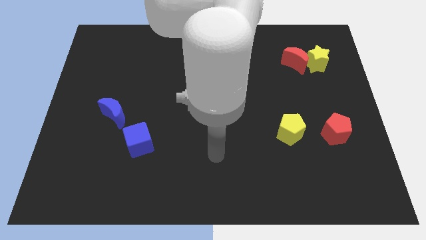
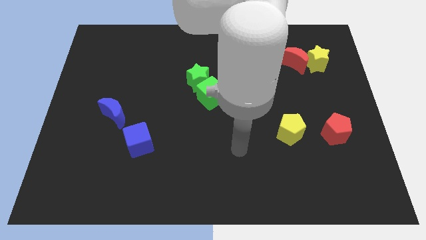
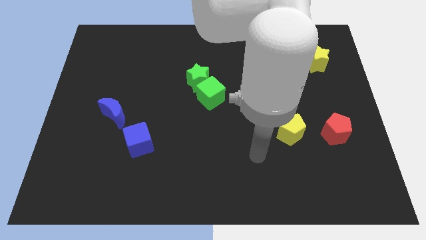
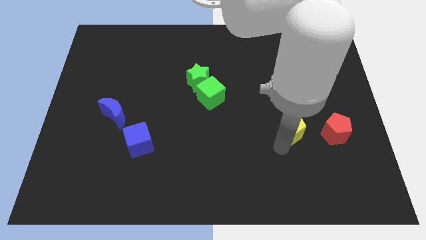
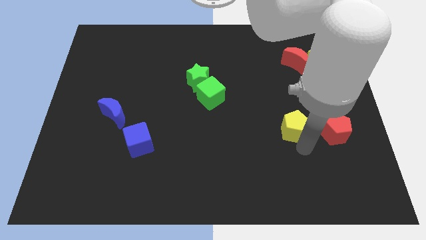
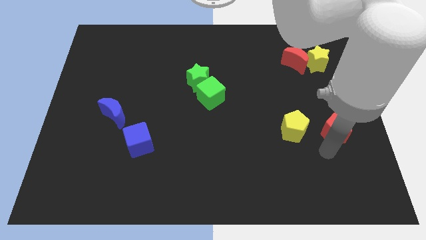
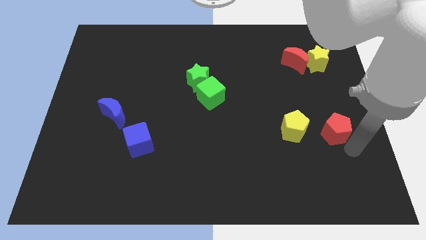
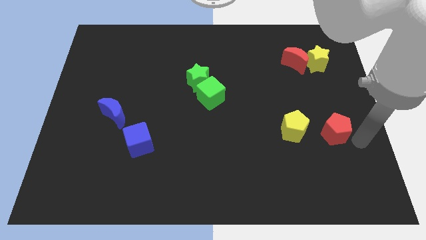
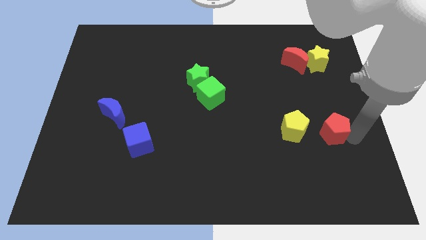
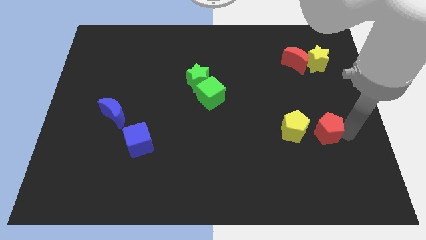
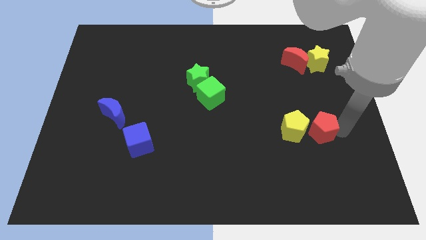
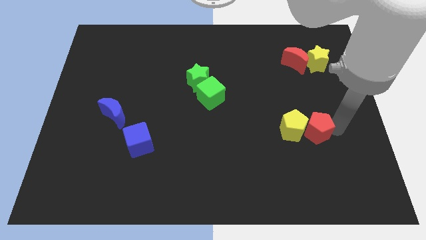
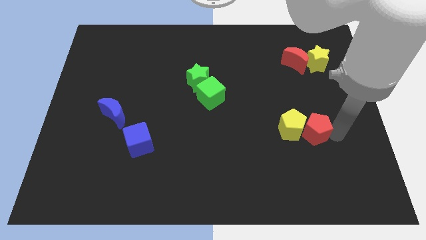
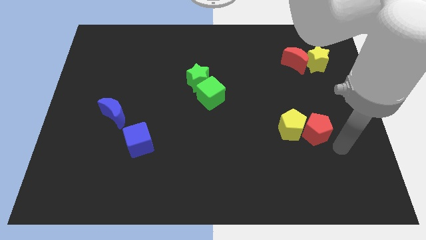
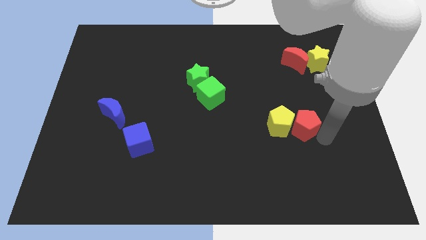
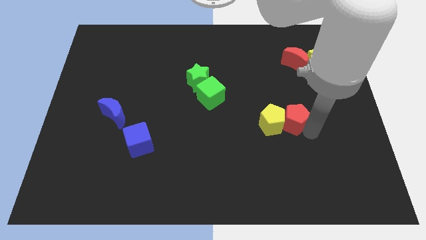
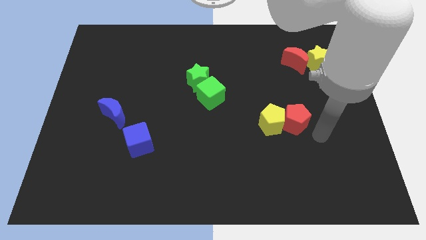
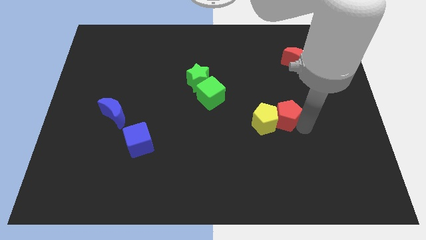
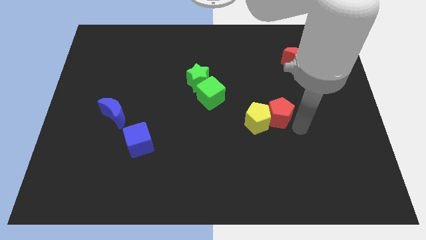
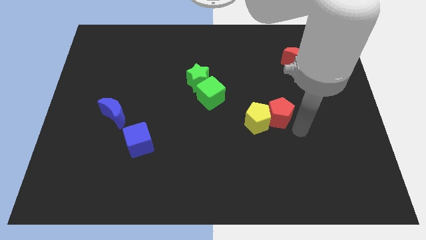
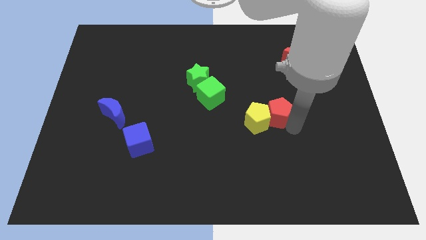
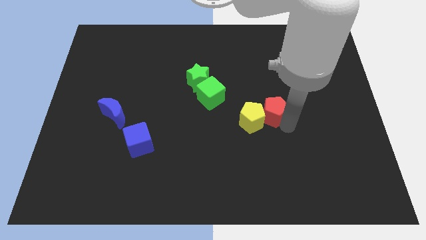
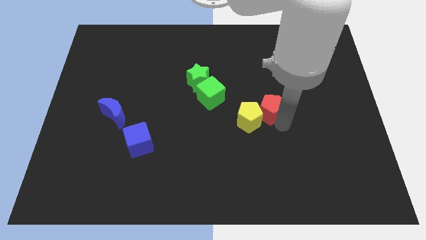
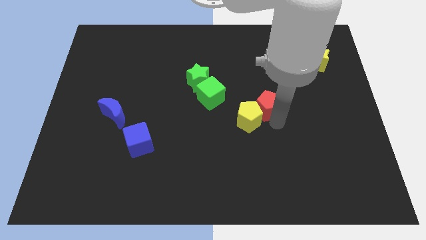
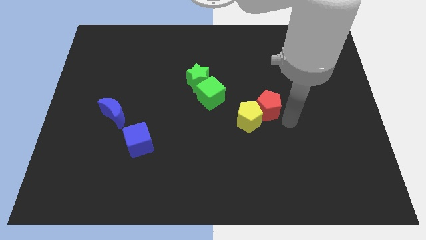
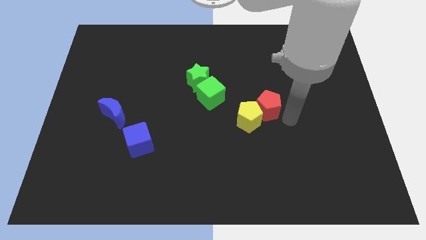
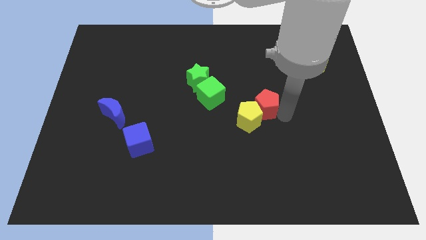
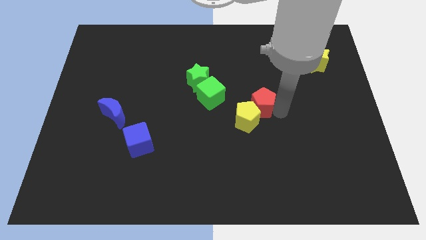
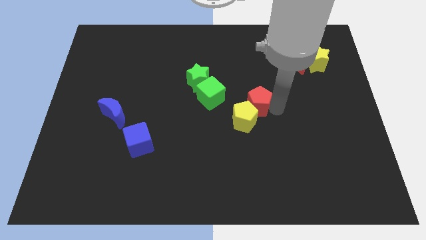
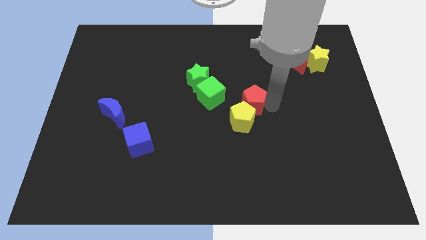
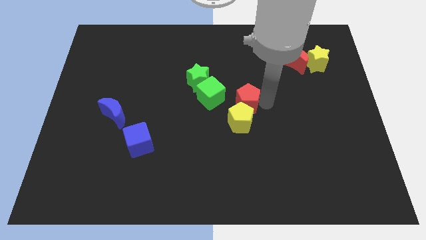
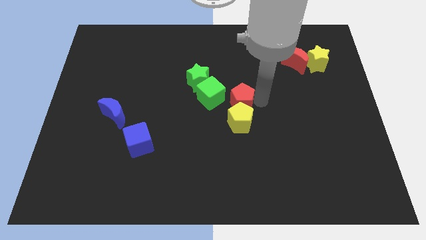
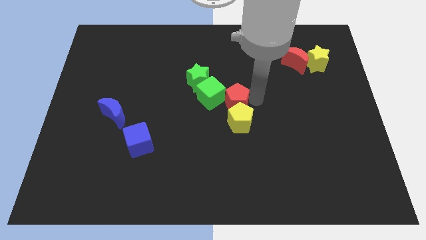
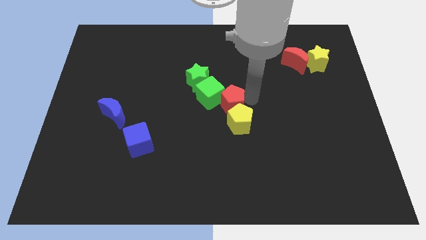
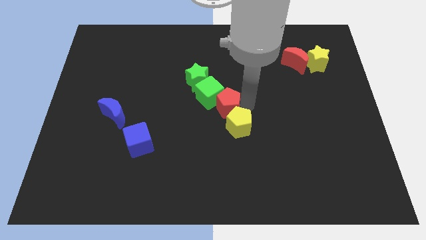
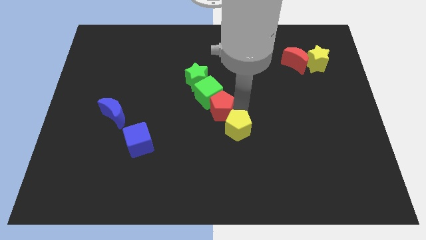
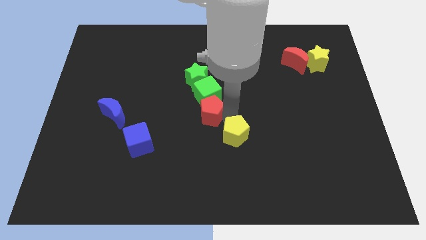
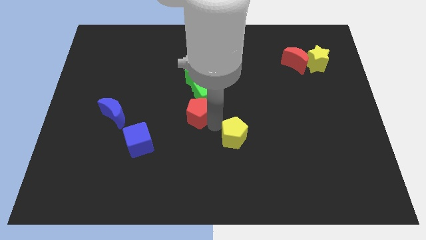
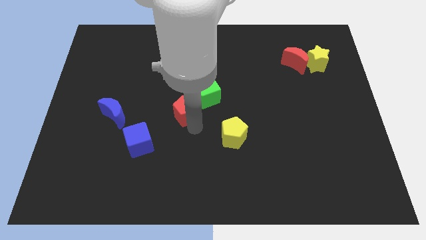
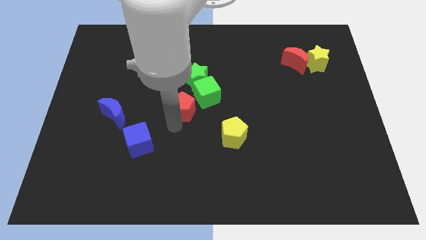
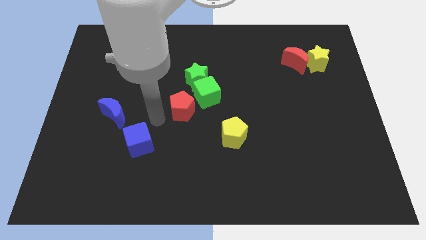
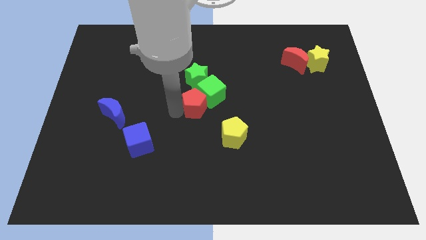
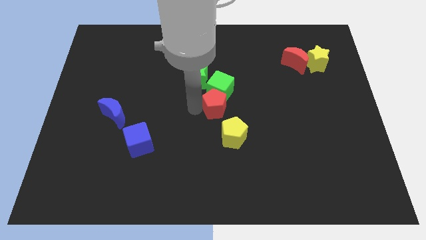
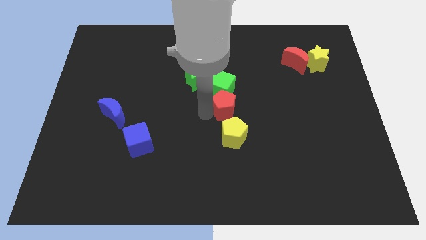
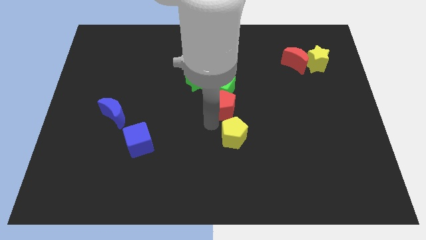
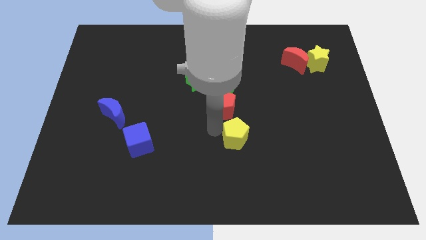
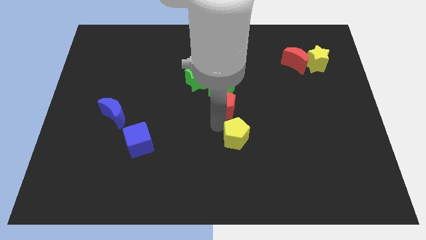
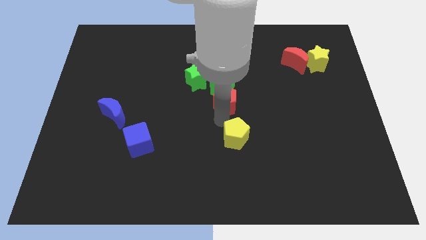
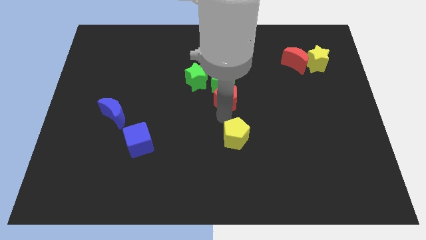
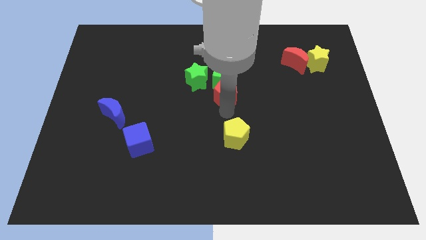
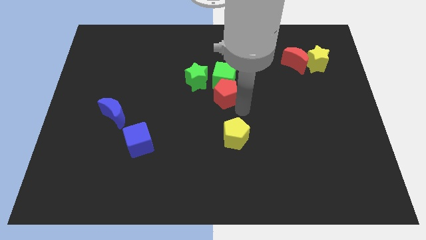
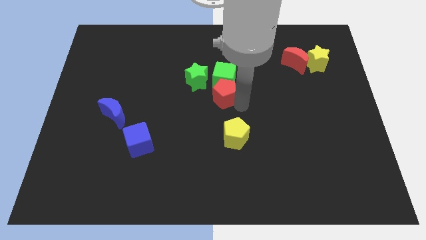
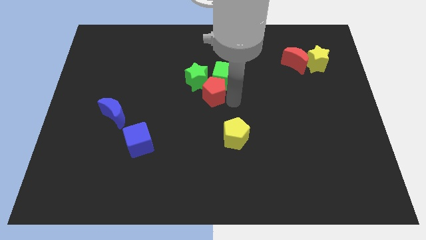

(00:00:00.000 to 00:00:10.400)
push the red pentagon towards the green star

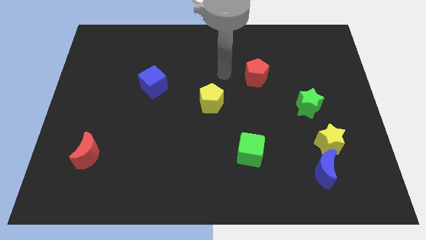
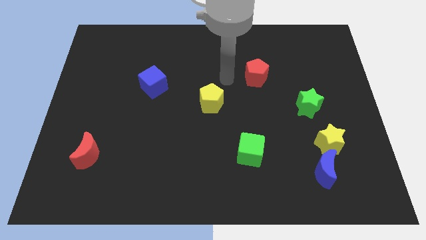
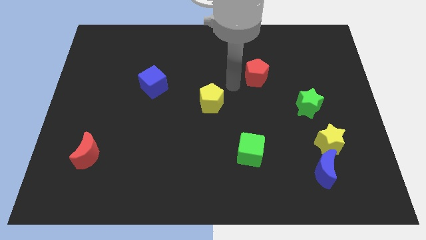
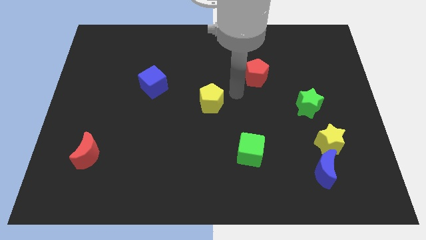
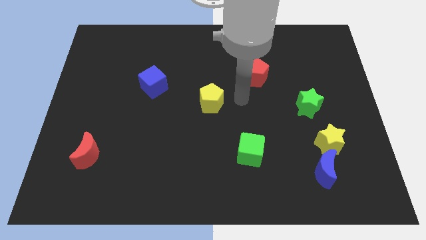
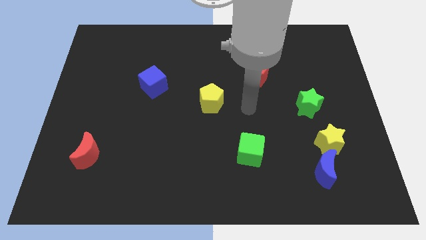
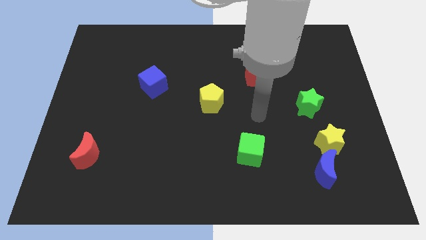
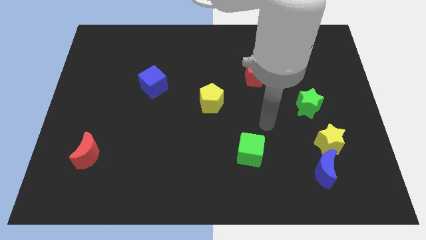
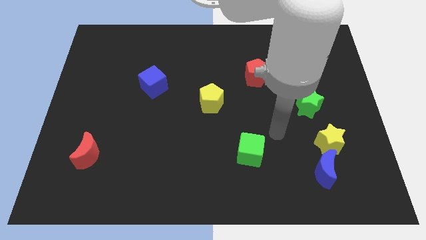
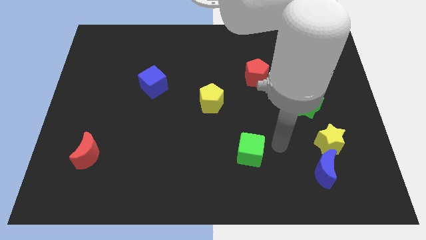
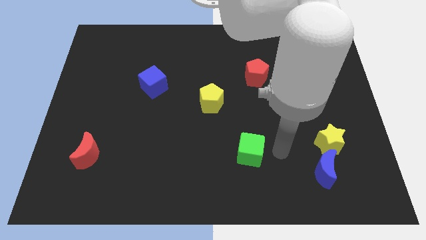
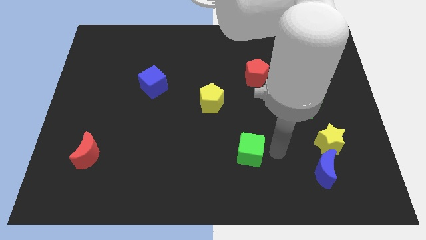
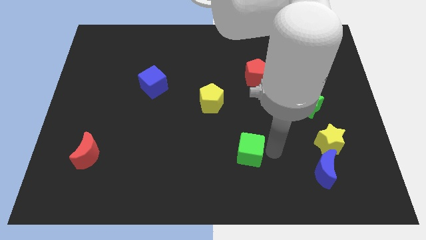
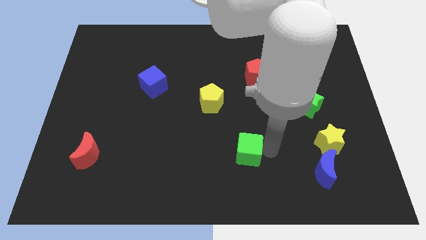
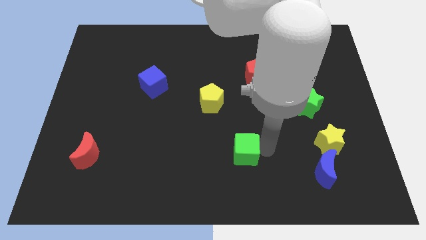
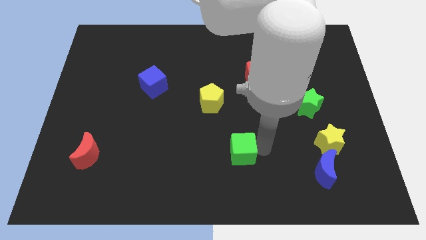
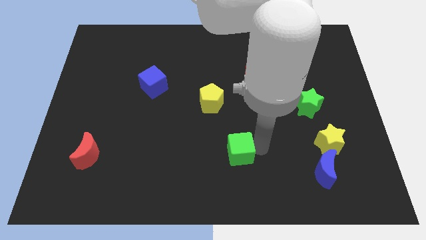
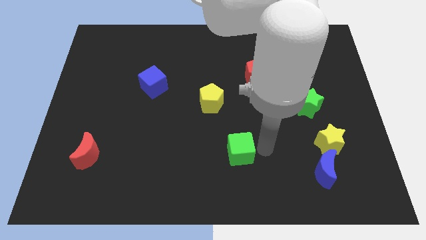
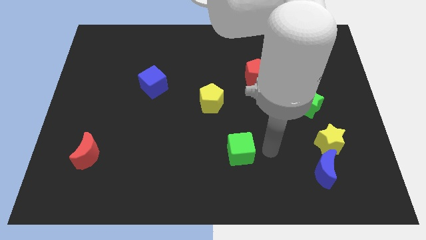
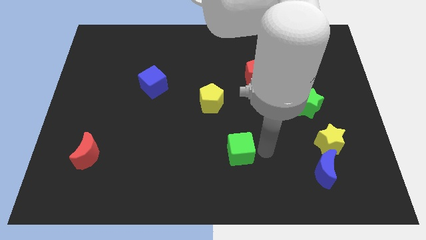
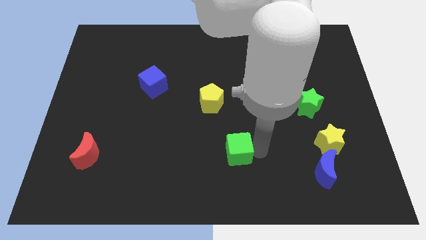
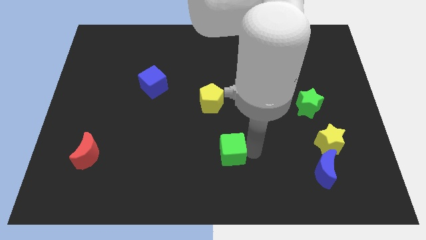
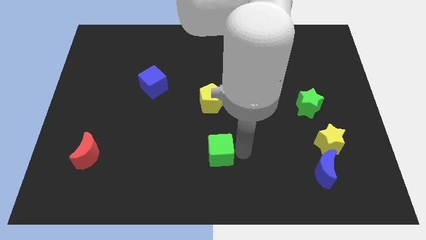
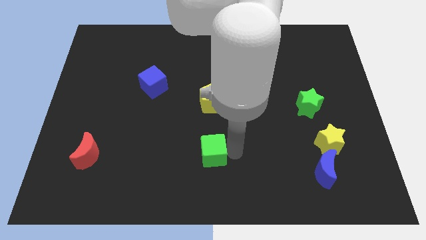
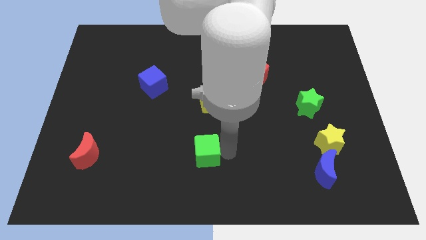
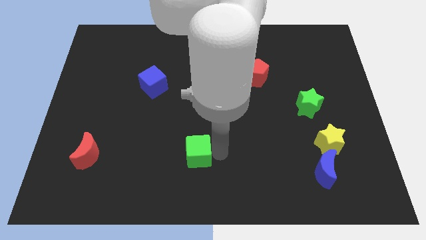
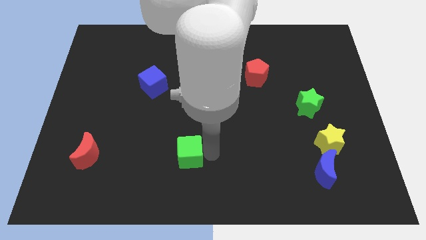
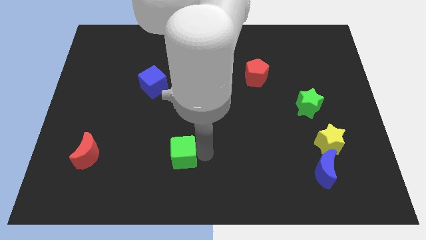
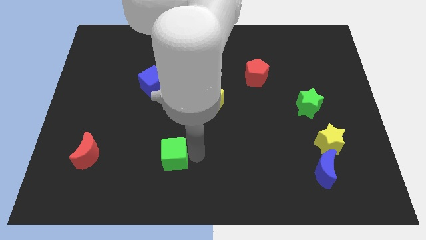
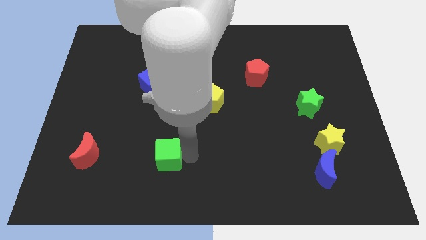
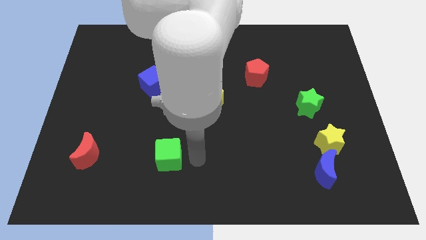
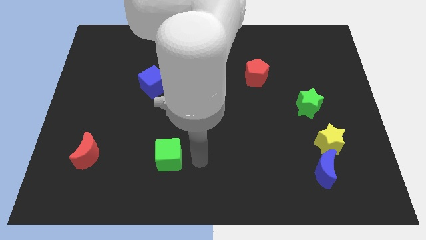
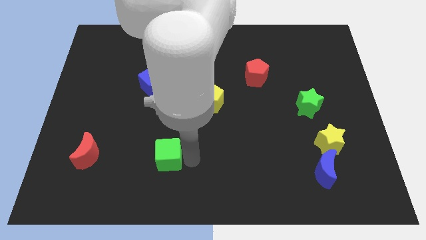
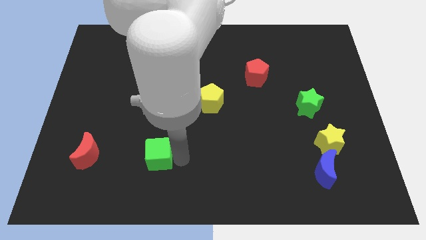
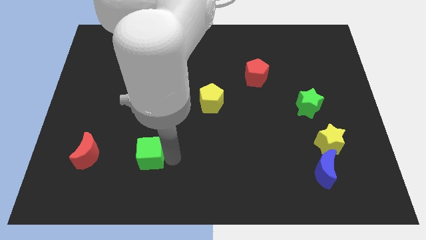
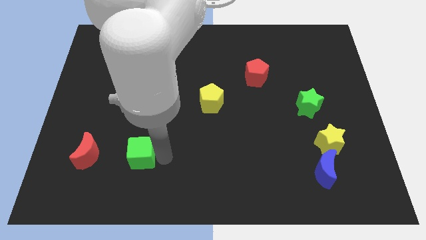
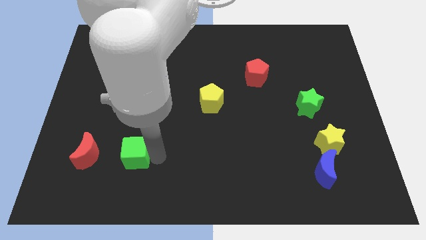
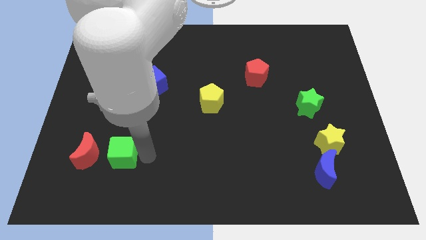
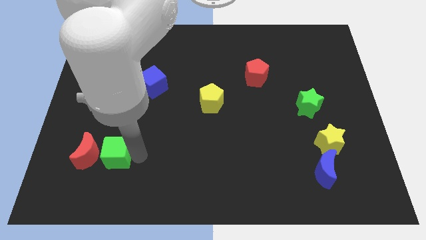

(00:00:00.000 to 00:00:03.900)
put the green cube to the red moon
